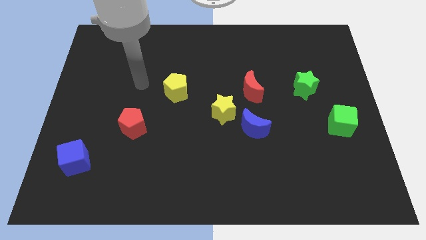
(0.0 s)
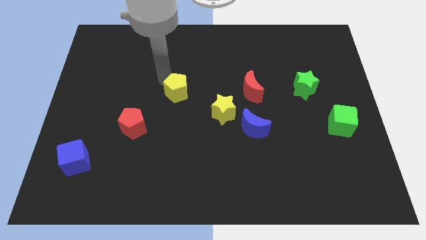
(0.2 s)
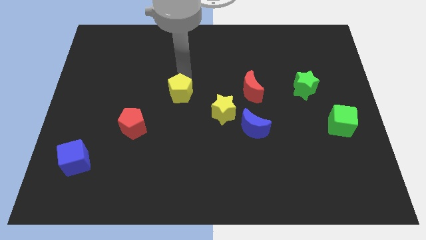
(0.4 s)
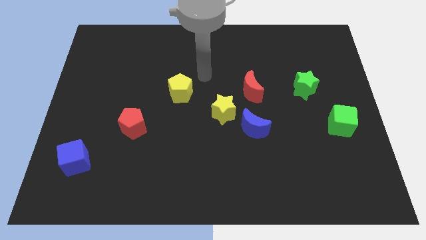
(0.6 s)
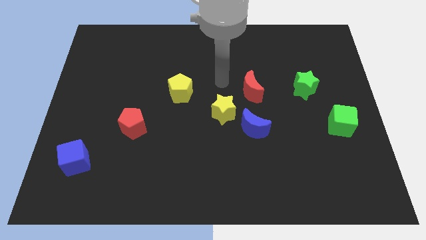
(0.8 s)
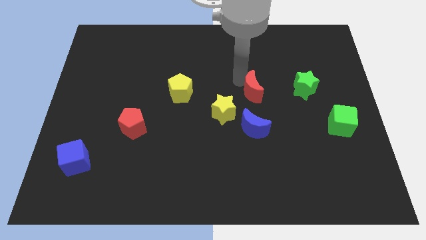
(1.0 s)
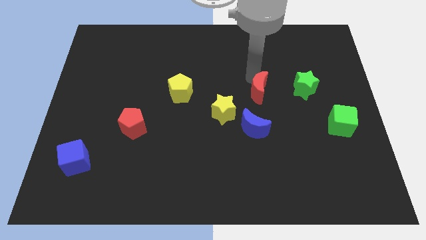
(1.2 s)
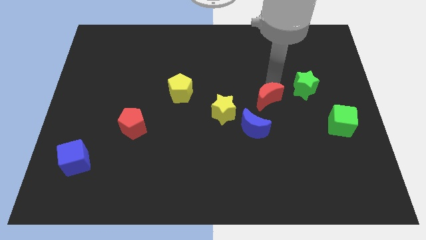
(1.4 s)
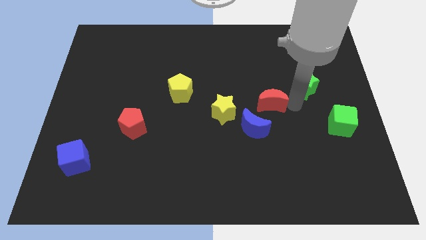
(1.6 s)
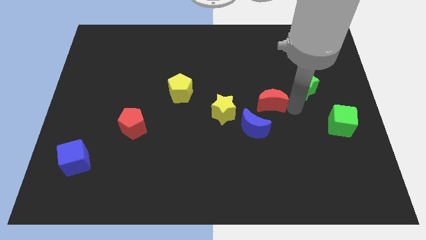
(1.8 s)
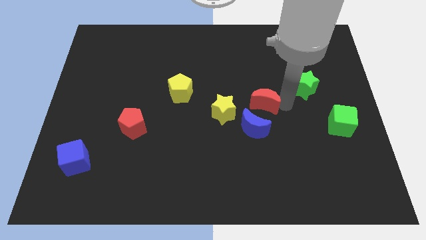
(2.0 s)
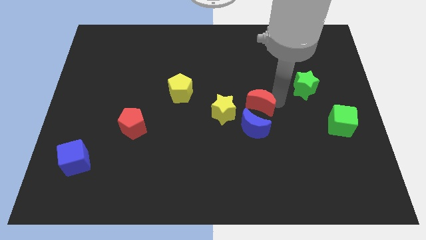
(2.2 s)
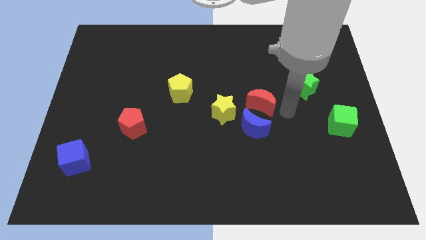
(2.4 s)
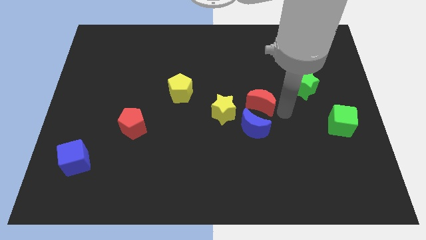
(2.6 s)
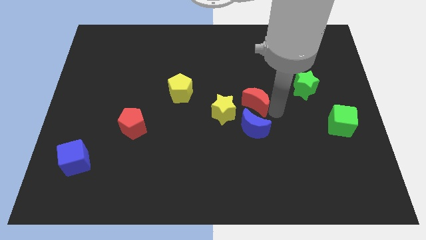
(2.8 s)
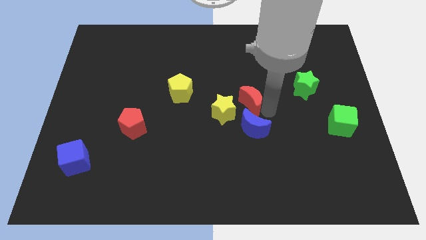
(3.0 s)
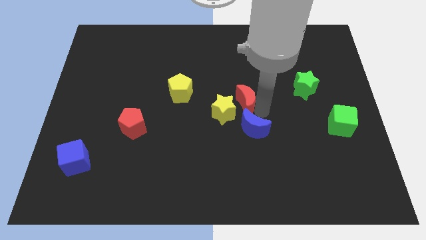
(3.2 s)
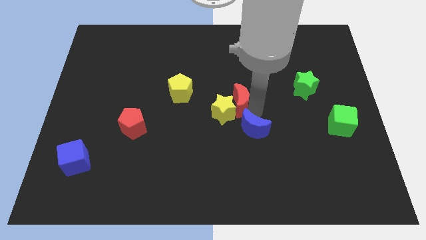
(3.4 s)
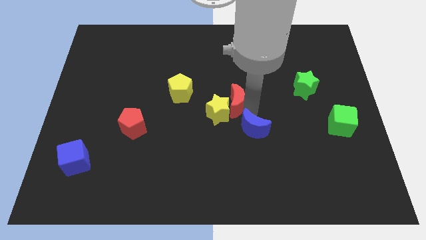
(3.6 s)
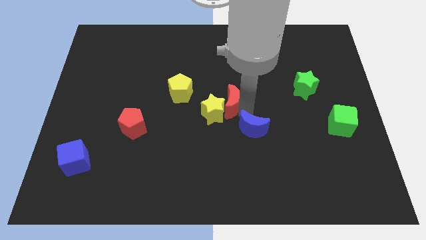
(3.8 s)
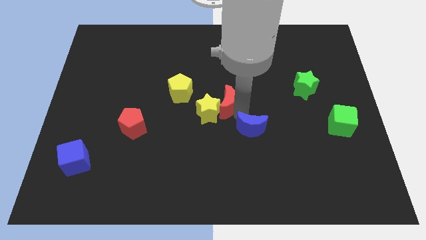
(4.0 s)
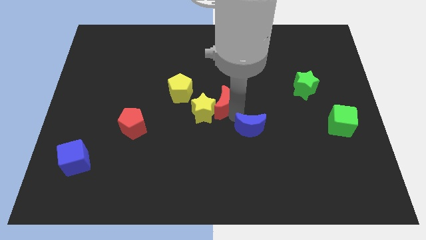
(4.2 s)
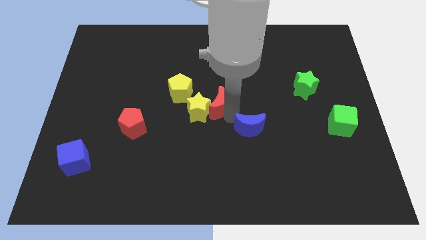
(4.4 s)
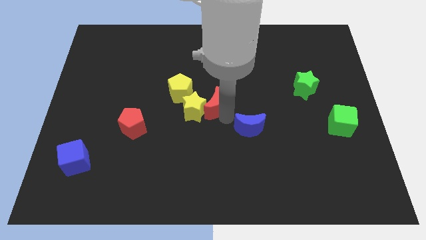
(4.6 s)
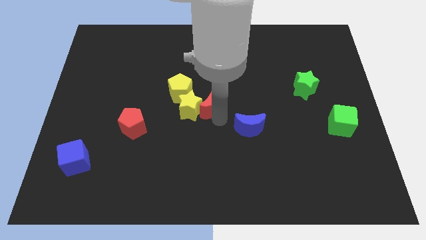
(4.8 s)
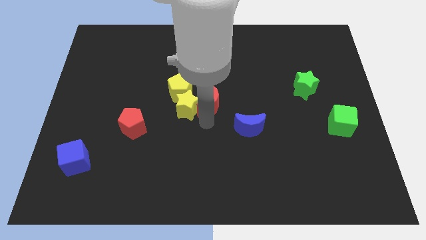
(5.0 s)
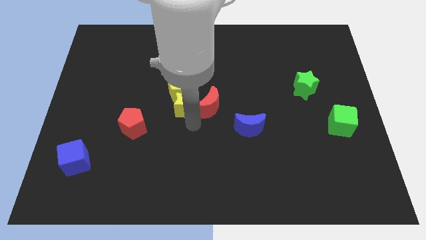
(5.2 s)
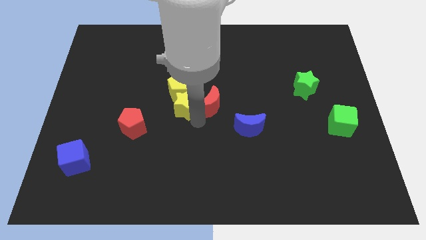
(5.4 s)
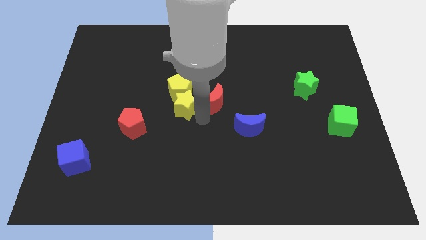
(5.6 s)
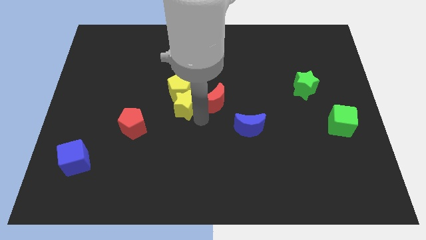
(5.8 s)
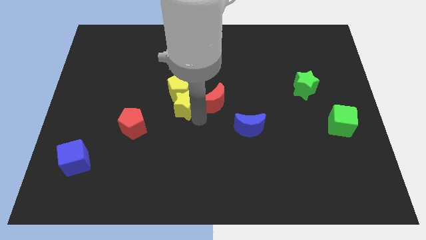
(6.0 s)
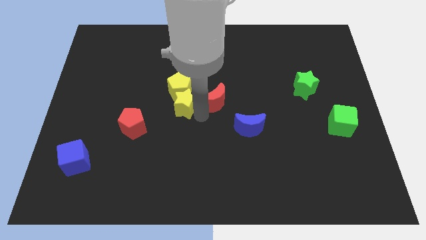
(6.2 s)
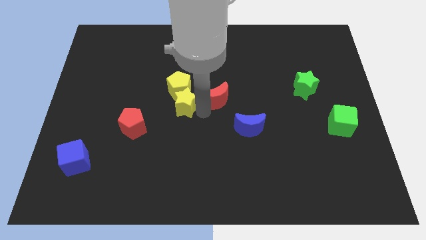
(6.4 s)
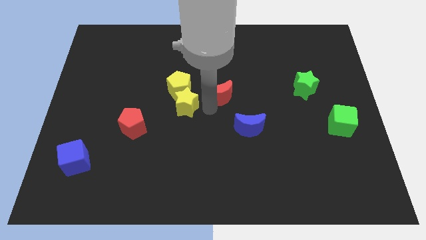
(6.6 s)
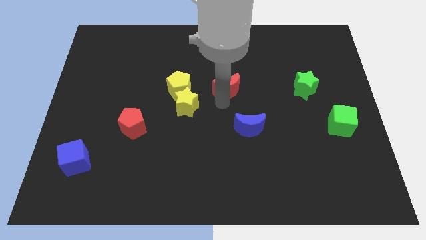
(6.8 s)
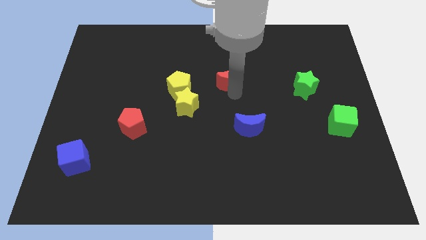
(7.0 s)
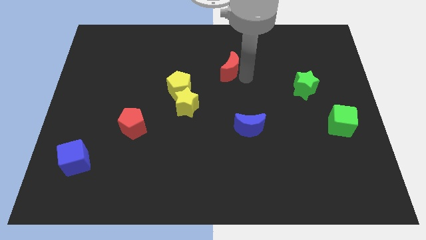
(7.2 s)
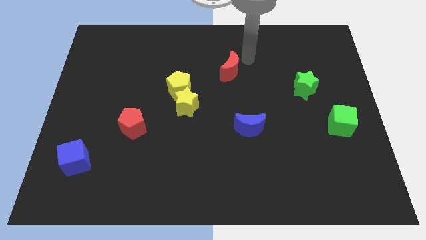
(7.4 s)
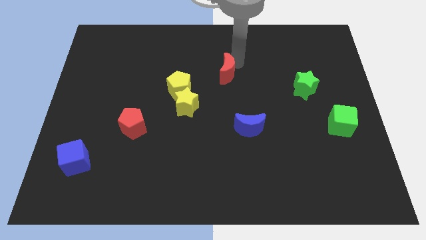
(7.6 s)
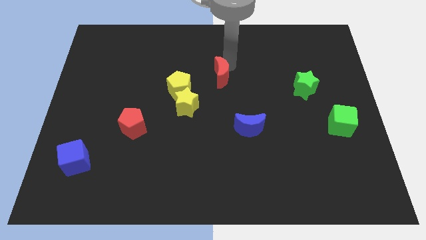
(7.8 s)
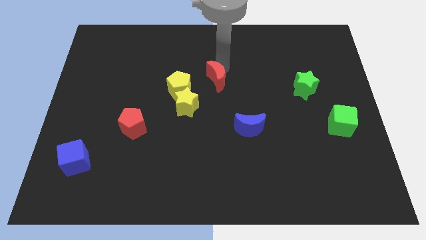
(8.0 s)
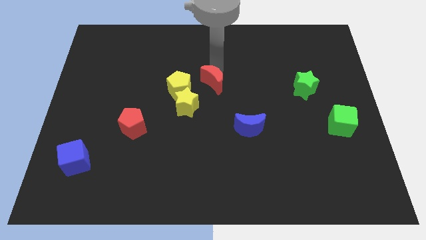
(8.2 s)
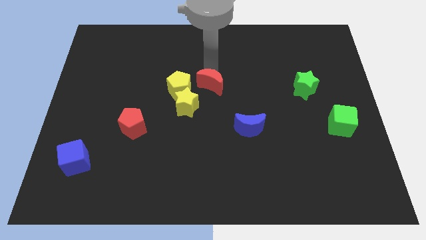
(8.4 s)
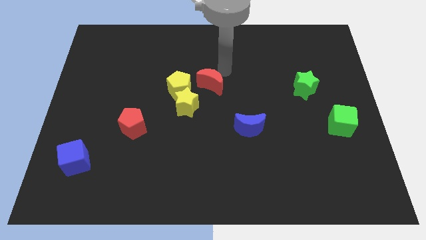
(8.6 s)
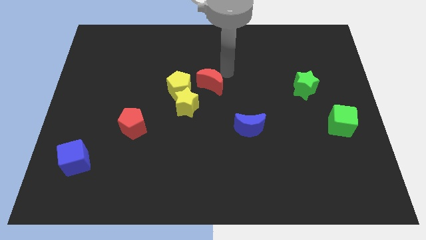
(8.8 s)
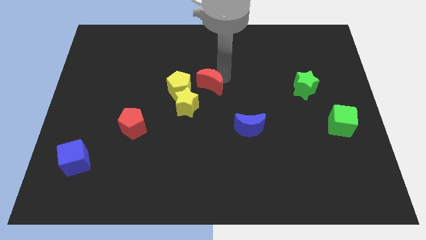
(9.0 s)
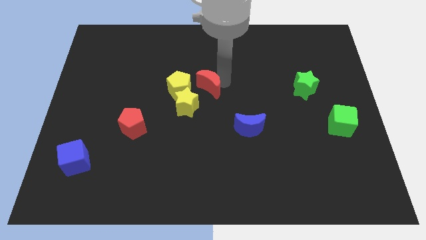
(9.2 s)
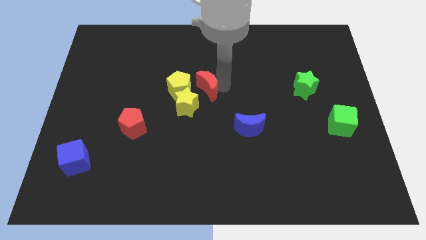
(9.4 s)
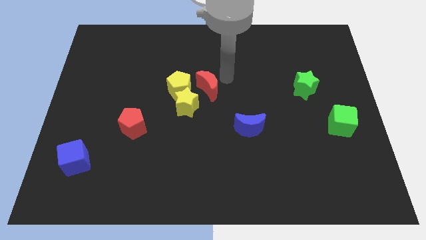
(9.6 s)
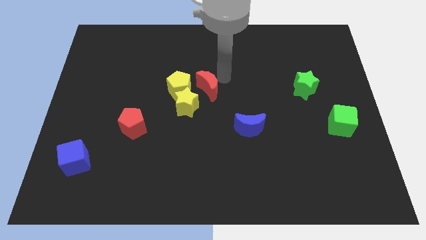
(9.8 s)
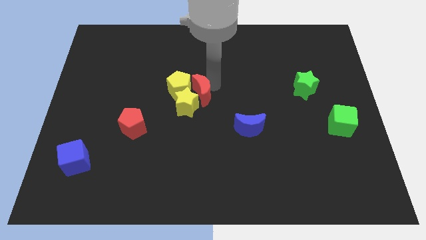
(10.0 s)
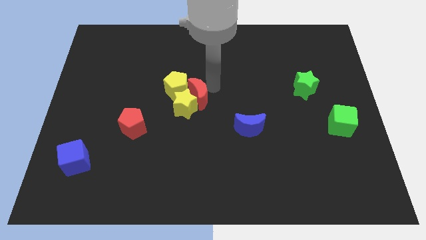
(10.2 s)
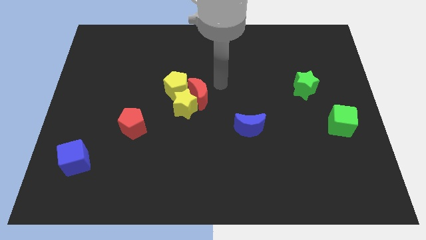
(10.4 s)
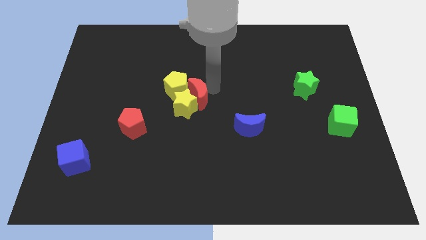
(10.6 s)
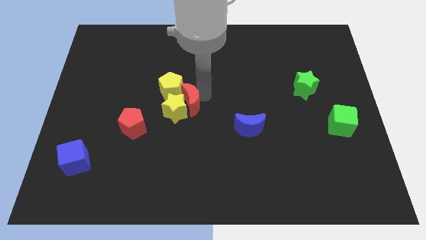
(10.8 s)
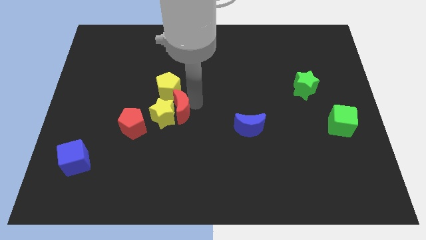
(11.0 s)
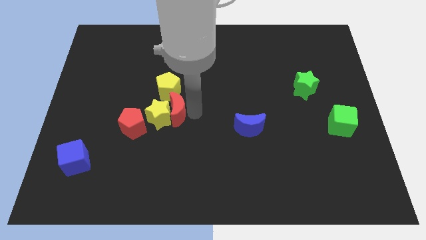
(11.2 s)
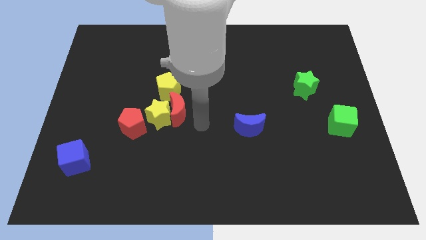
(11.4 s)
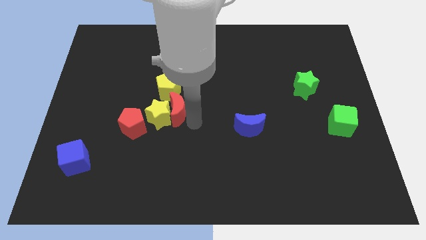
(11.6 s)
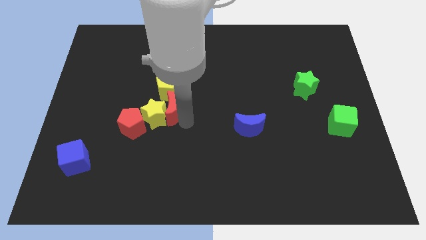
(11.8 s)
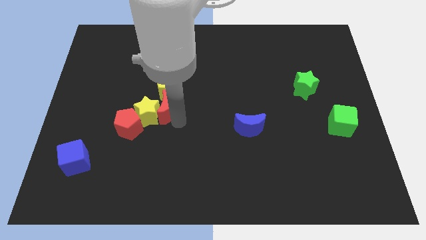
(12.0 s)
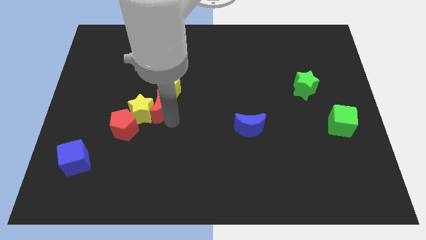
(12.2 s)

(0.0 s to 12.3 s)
push the red moon to the left

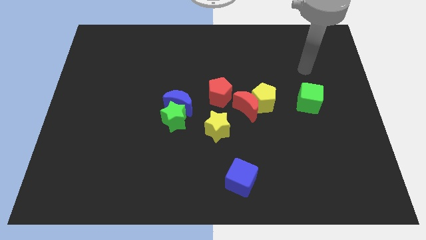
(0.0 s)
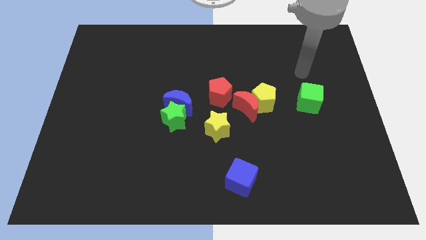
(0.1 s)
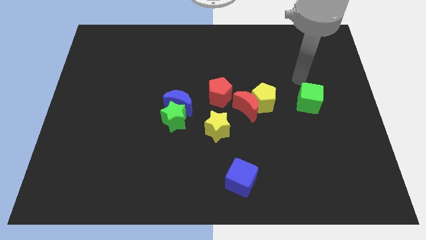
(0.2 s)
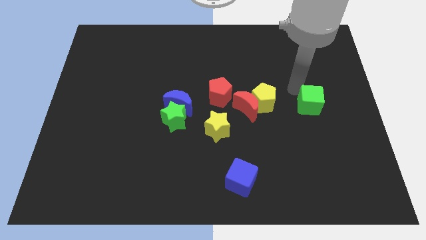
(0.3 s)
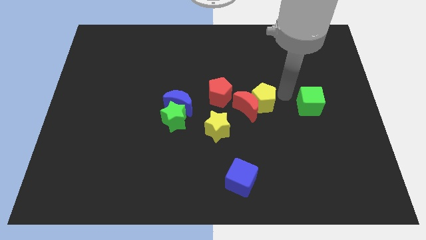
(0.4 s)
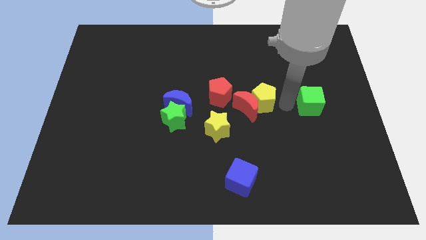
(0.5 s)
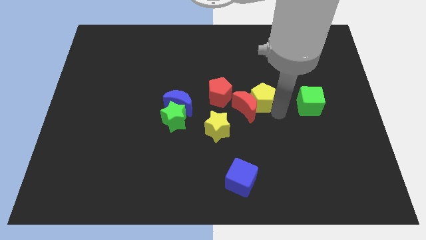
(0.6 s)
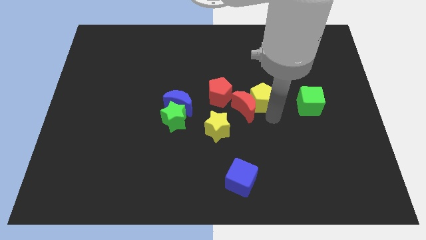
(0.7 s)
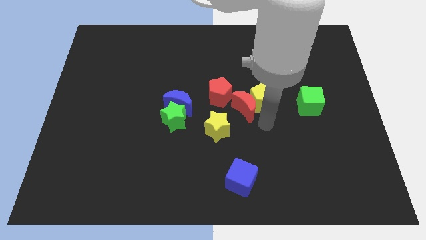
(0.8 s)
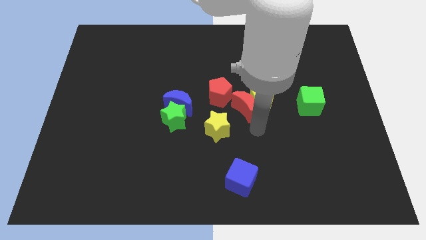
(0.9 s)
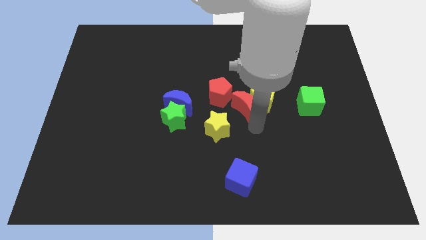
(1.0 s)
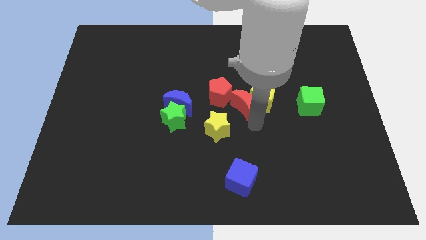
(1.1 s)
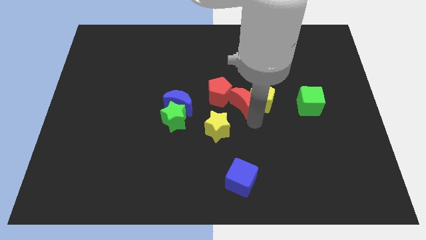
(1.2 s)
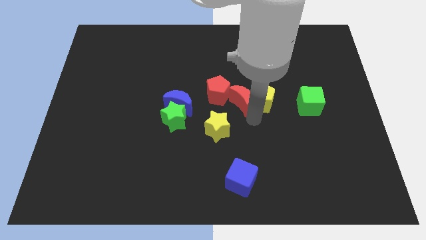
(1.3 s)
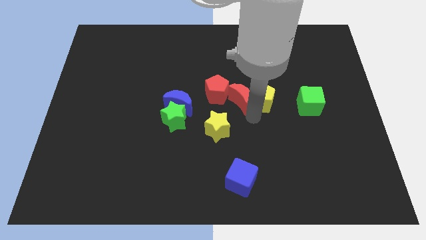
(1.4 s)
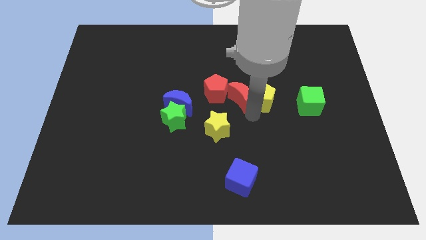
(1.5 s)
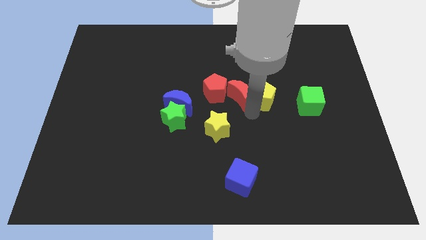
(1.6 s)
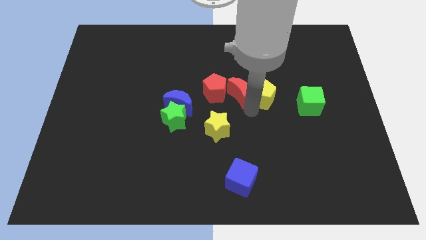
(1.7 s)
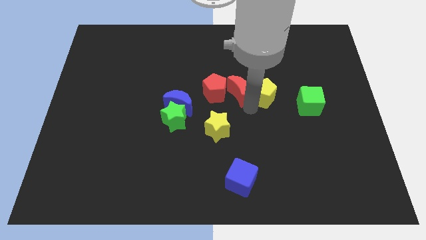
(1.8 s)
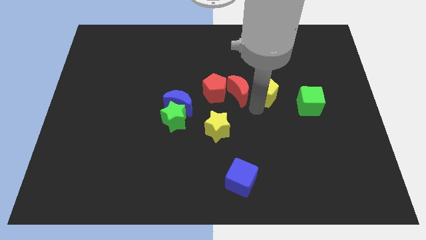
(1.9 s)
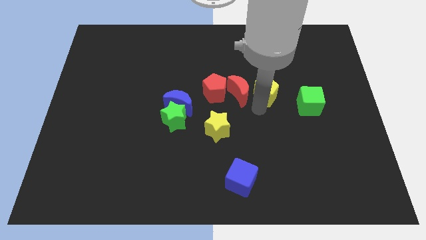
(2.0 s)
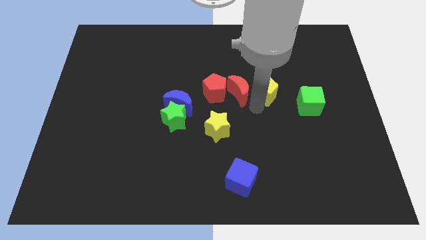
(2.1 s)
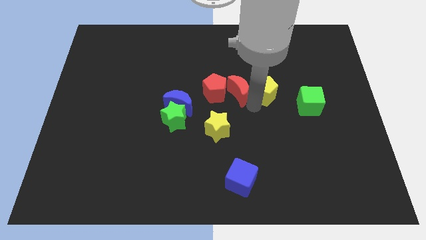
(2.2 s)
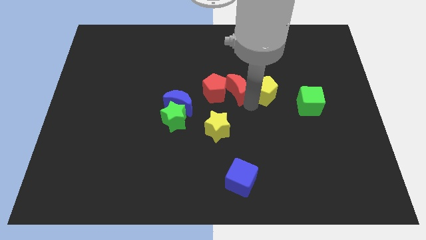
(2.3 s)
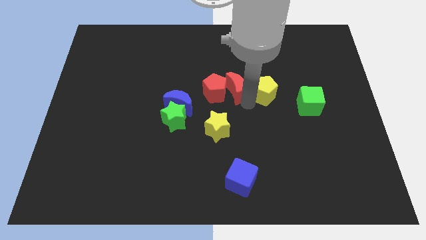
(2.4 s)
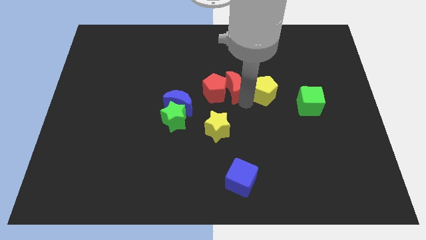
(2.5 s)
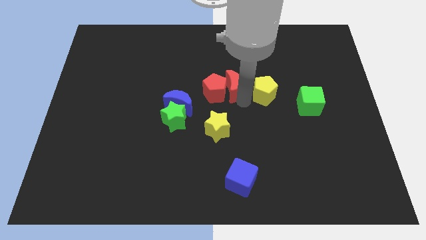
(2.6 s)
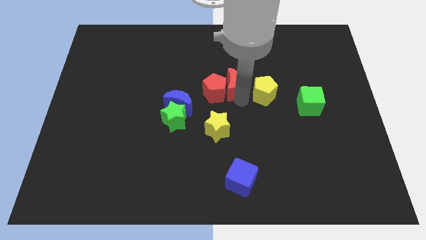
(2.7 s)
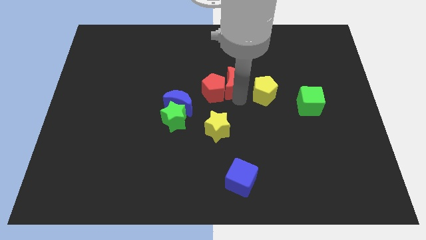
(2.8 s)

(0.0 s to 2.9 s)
slightly move the red moon up and left diagonally
